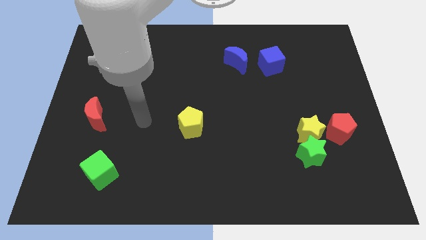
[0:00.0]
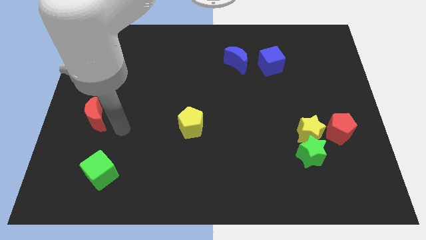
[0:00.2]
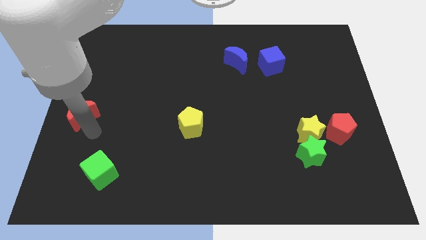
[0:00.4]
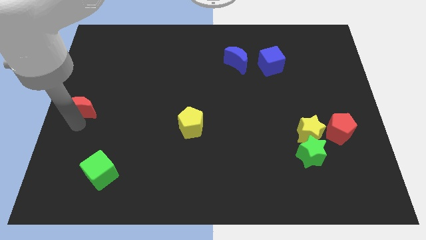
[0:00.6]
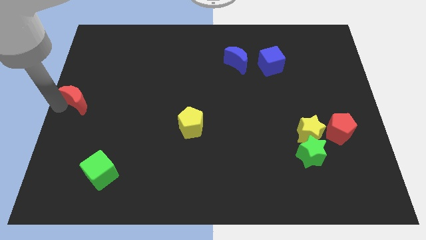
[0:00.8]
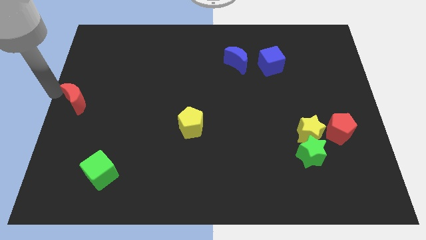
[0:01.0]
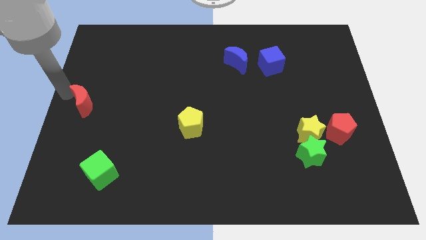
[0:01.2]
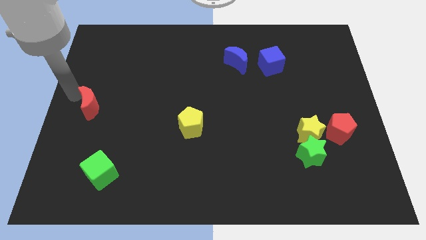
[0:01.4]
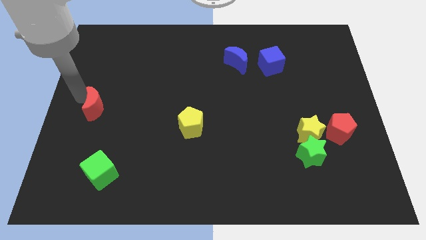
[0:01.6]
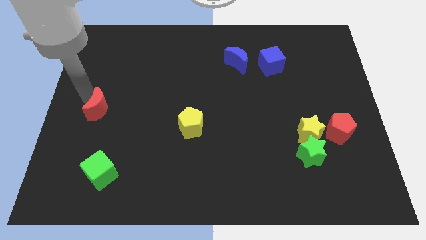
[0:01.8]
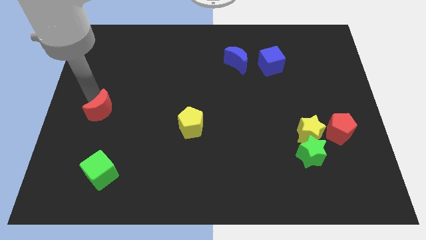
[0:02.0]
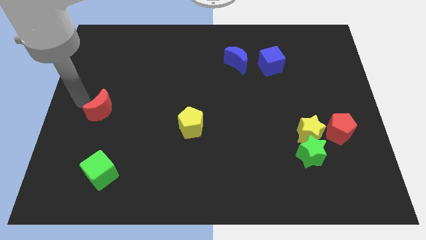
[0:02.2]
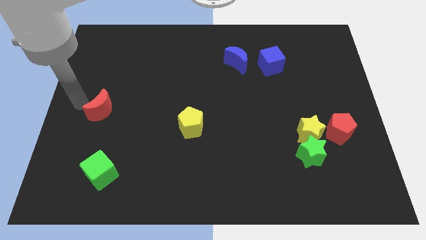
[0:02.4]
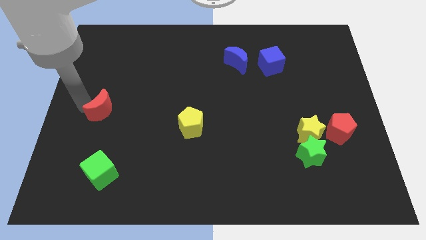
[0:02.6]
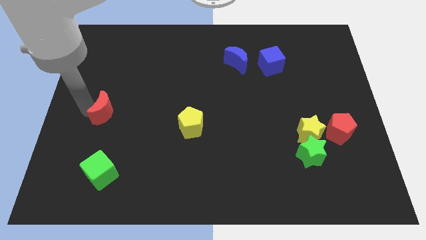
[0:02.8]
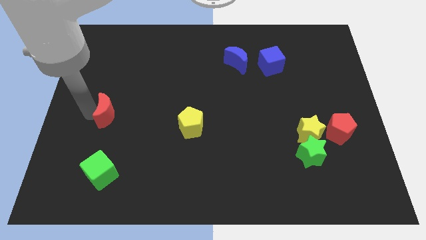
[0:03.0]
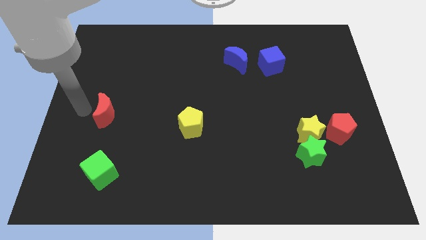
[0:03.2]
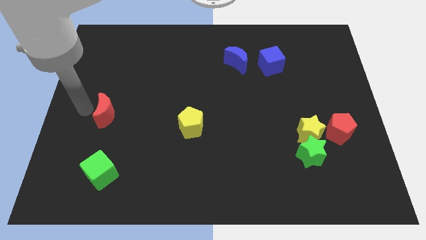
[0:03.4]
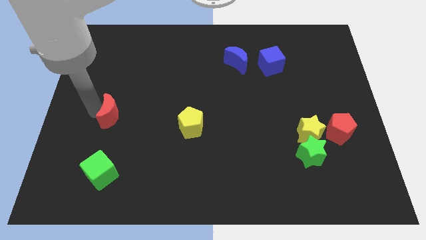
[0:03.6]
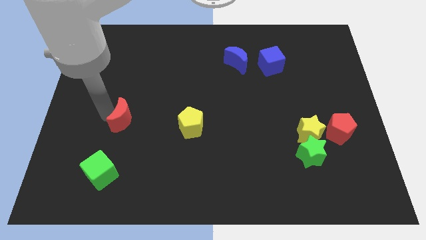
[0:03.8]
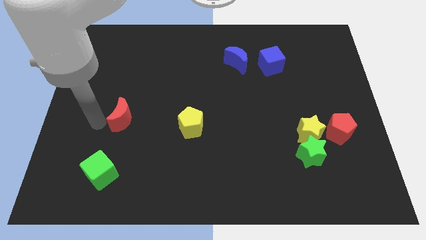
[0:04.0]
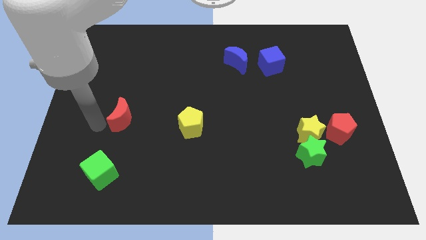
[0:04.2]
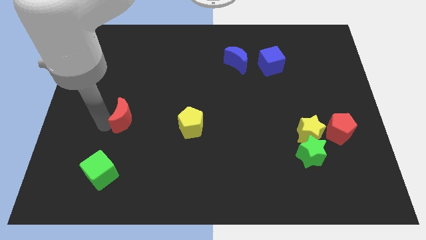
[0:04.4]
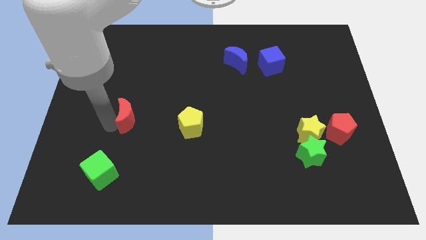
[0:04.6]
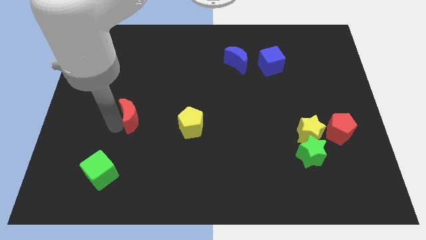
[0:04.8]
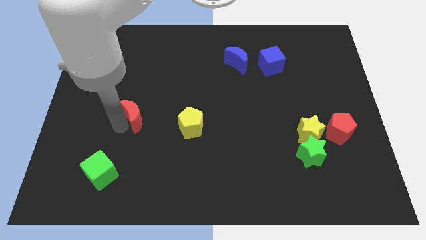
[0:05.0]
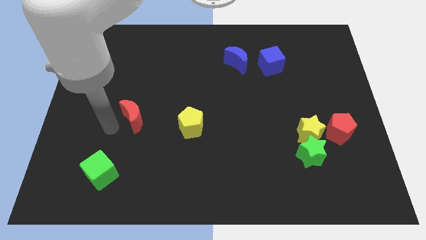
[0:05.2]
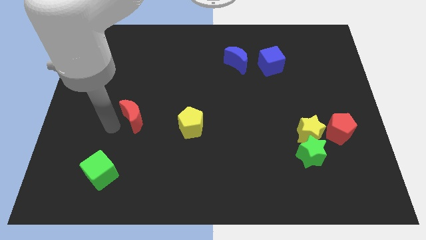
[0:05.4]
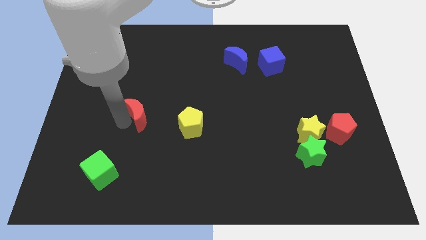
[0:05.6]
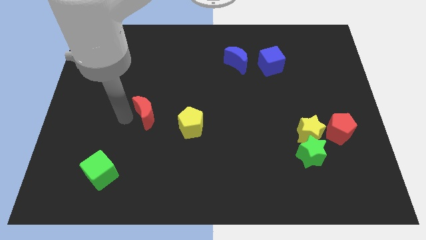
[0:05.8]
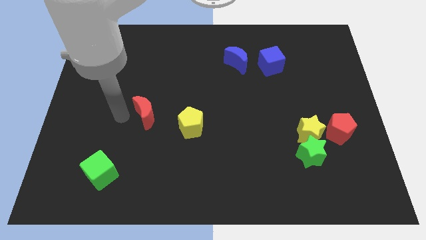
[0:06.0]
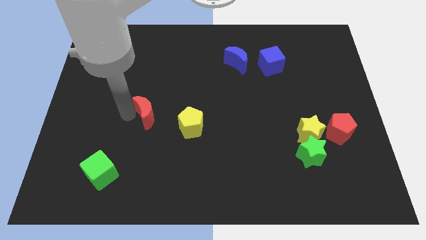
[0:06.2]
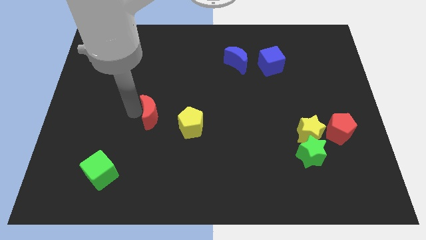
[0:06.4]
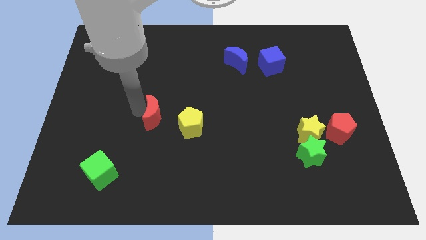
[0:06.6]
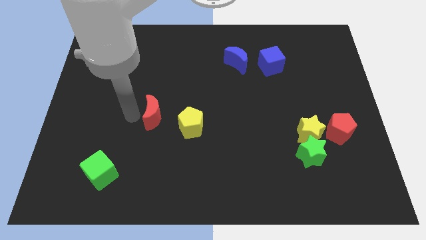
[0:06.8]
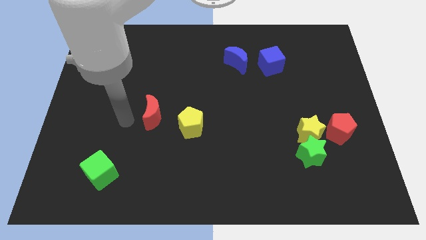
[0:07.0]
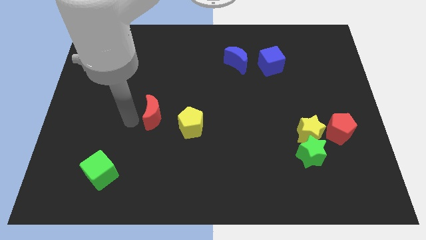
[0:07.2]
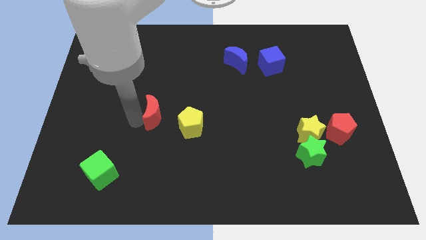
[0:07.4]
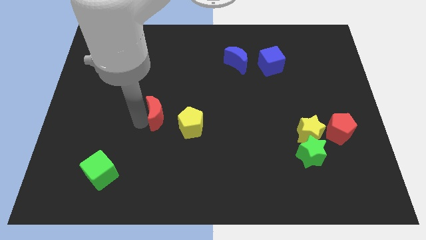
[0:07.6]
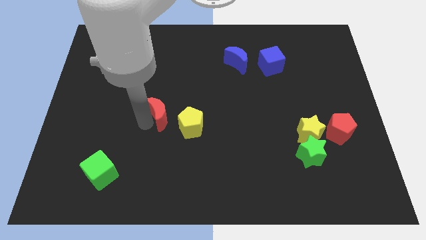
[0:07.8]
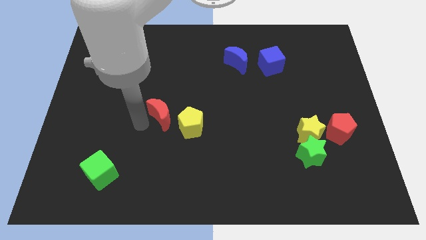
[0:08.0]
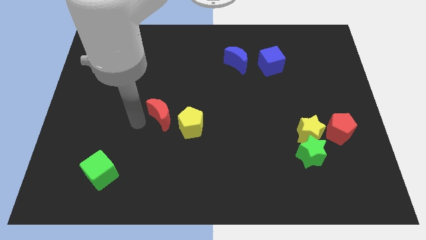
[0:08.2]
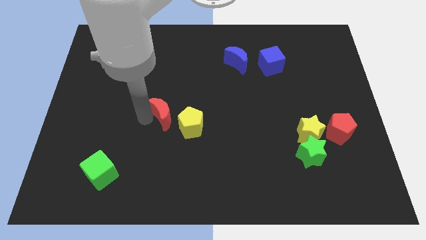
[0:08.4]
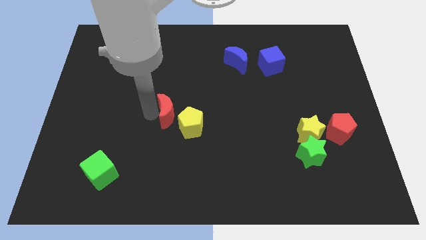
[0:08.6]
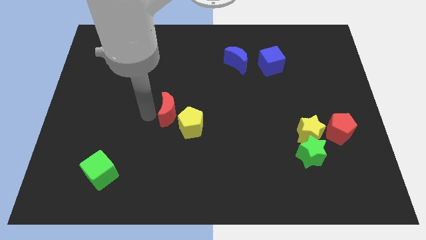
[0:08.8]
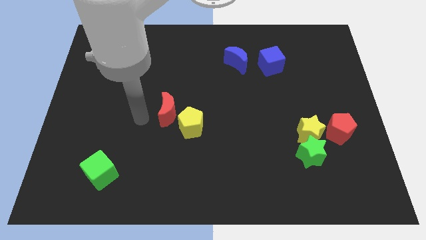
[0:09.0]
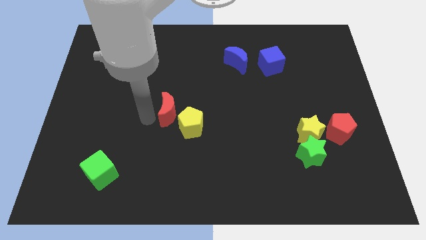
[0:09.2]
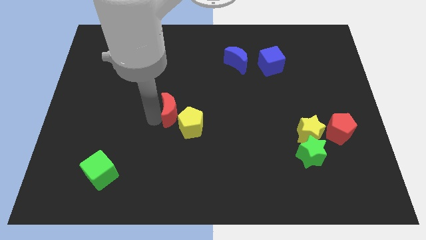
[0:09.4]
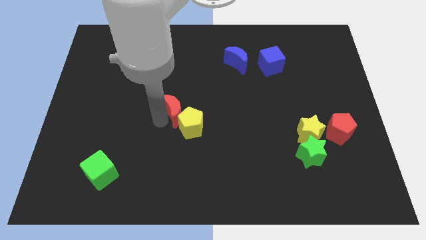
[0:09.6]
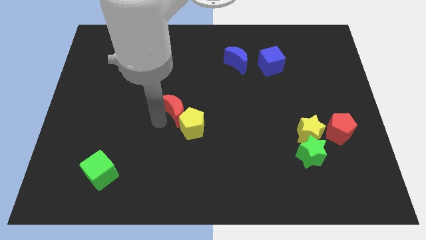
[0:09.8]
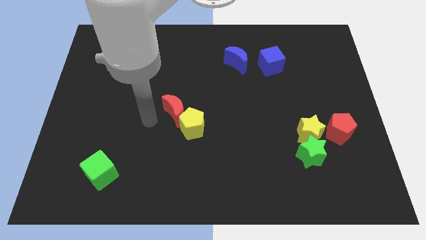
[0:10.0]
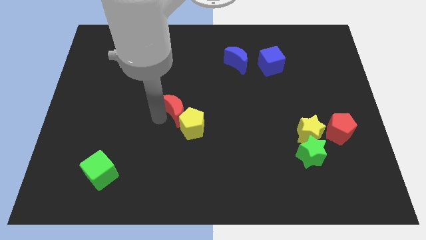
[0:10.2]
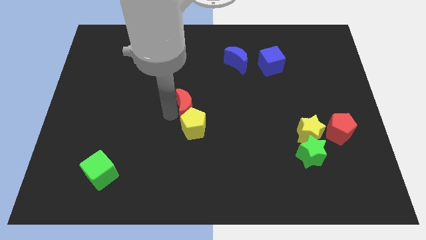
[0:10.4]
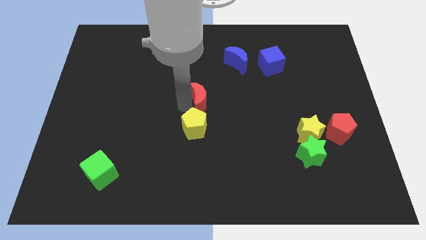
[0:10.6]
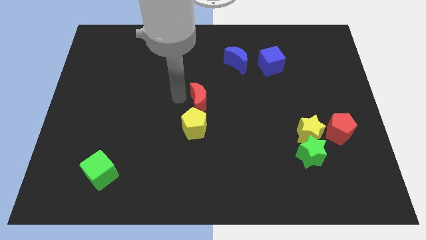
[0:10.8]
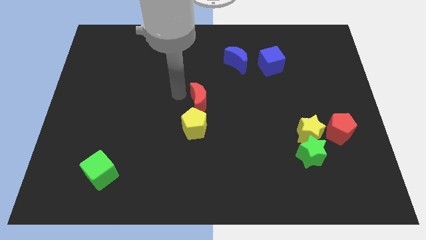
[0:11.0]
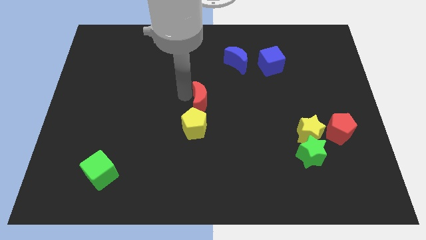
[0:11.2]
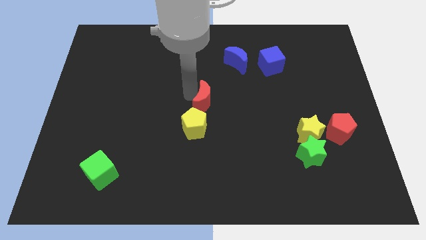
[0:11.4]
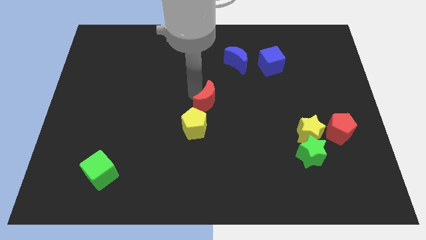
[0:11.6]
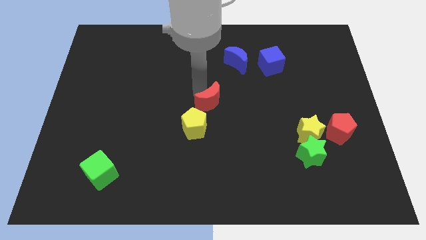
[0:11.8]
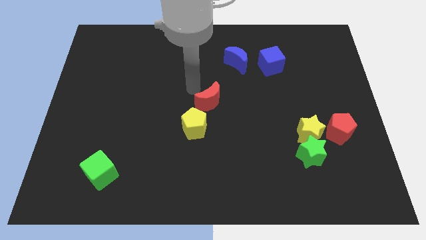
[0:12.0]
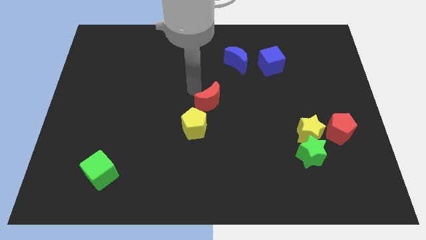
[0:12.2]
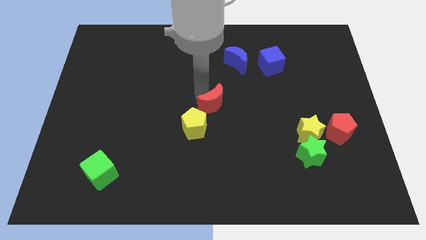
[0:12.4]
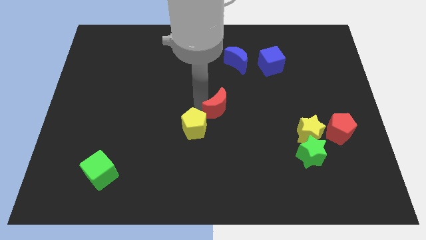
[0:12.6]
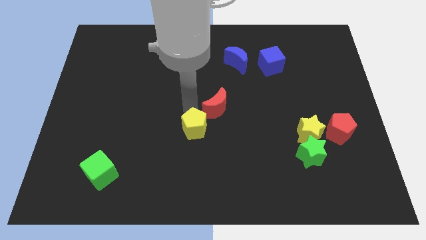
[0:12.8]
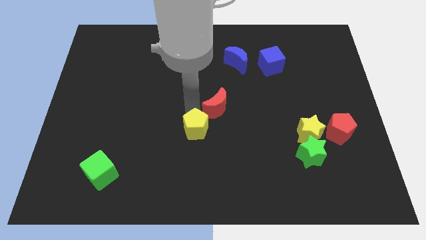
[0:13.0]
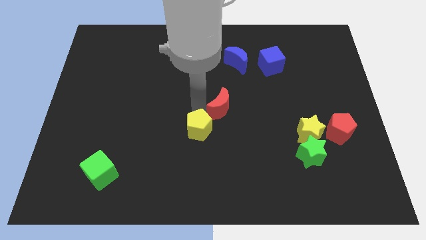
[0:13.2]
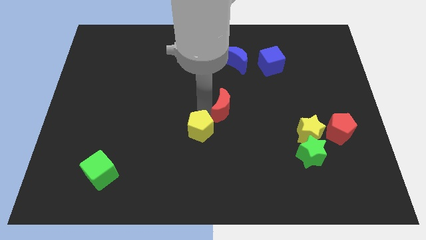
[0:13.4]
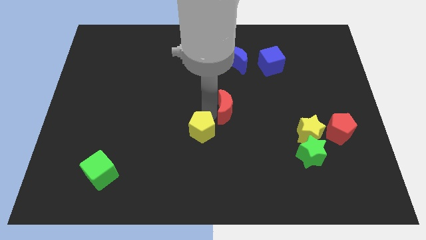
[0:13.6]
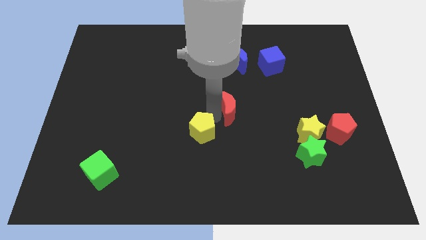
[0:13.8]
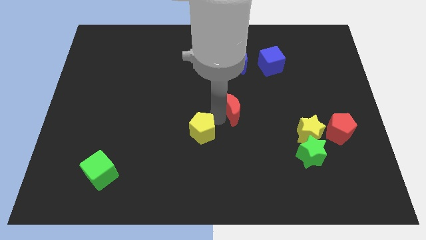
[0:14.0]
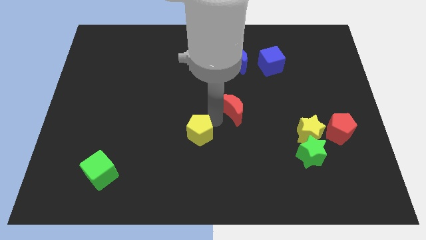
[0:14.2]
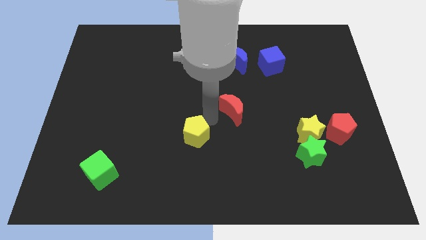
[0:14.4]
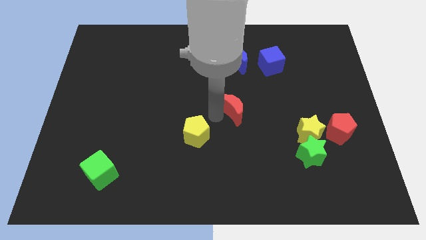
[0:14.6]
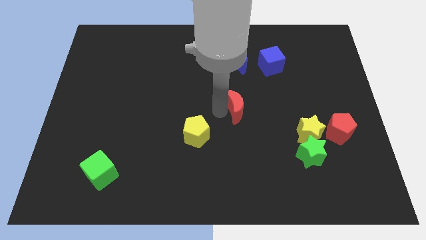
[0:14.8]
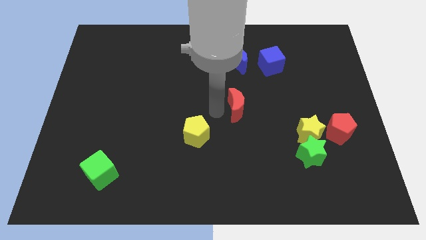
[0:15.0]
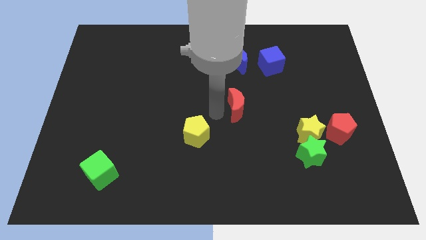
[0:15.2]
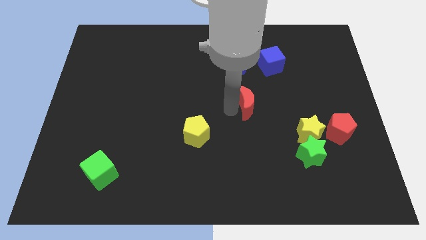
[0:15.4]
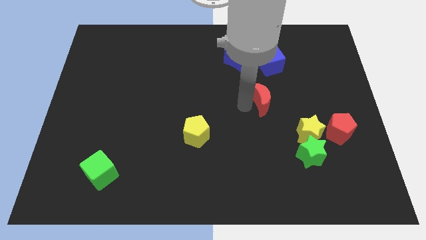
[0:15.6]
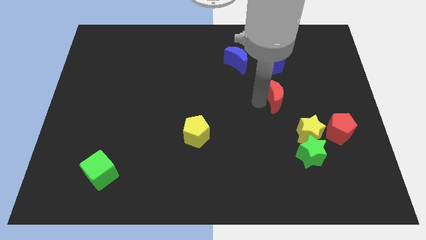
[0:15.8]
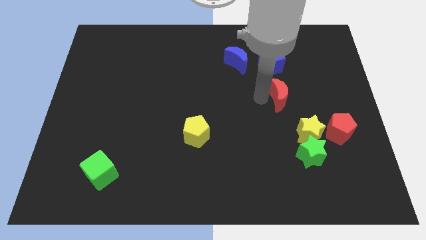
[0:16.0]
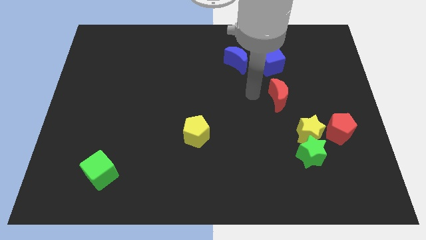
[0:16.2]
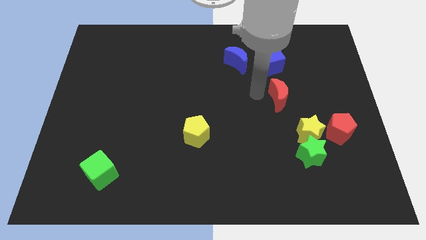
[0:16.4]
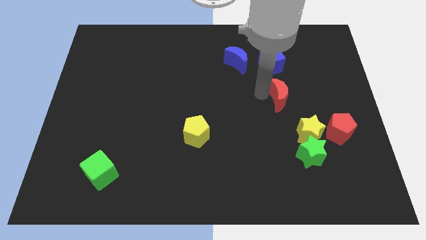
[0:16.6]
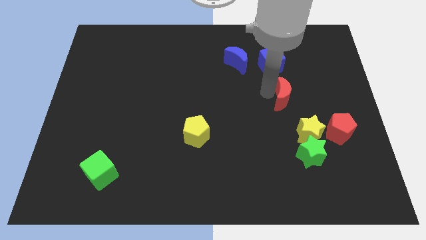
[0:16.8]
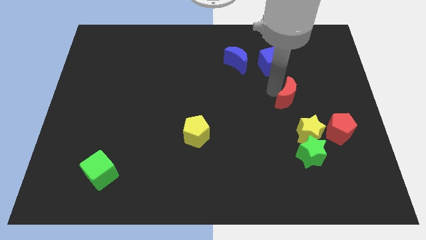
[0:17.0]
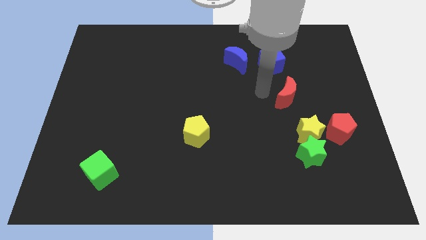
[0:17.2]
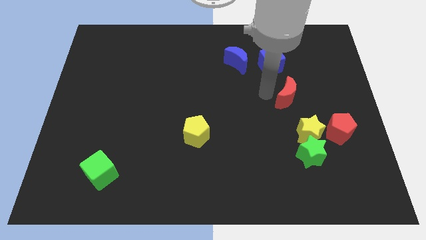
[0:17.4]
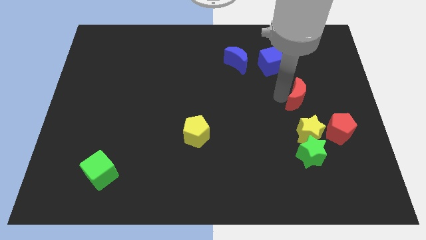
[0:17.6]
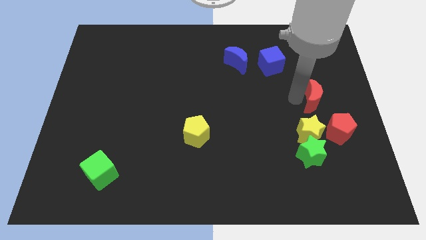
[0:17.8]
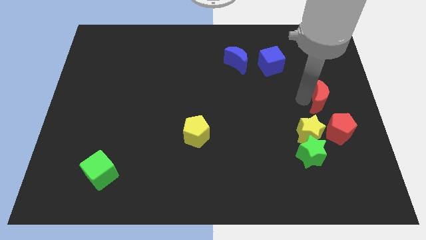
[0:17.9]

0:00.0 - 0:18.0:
move the red moon to the center right
